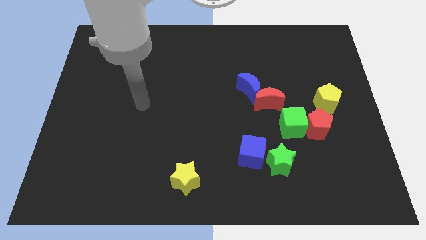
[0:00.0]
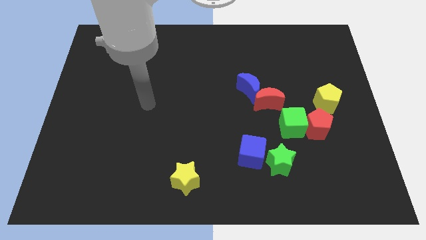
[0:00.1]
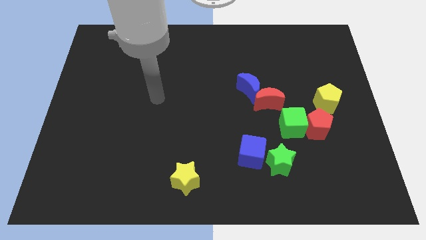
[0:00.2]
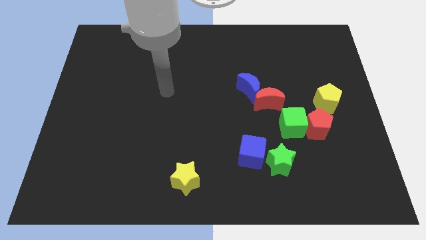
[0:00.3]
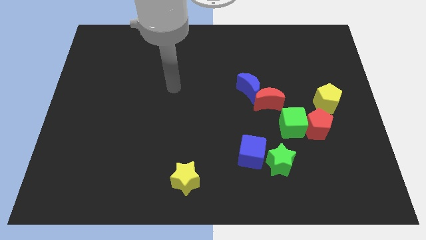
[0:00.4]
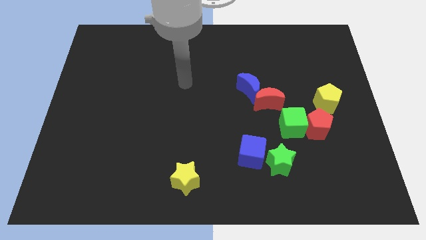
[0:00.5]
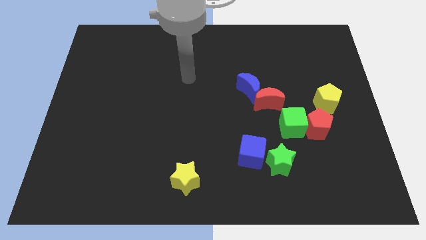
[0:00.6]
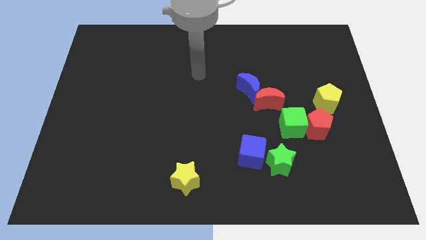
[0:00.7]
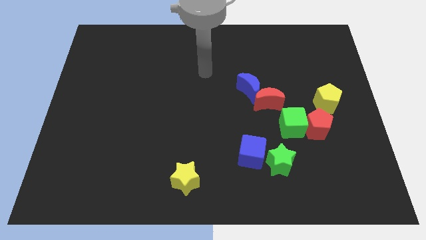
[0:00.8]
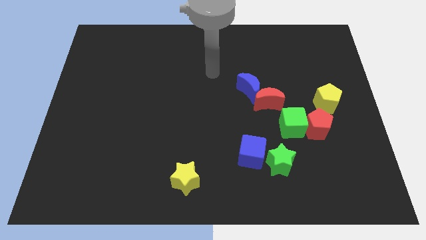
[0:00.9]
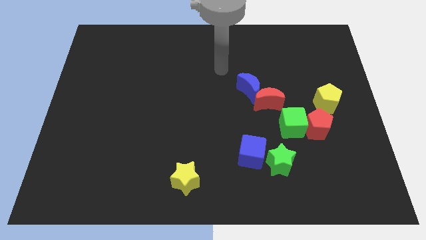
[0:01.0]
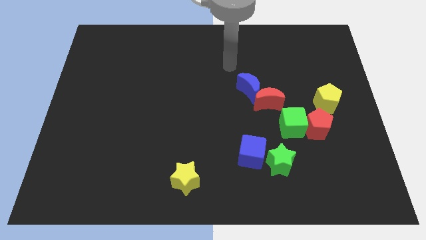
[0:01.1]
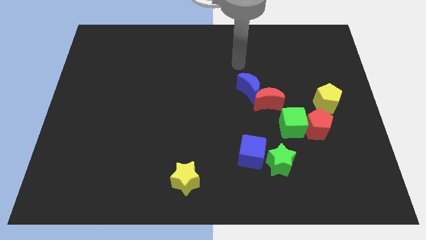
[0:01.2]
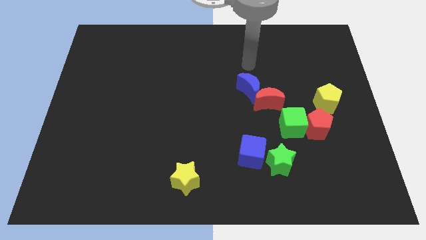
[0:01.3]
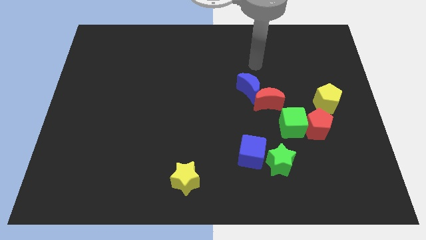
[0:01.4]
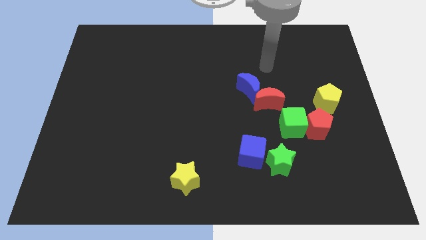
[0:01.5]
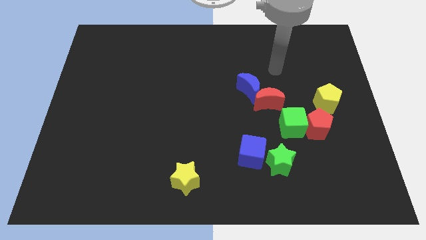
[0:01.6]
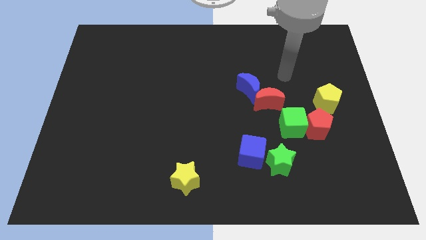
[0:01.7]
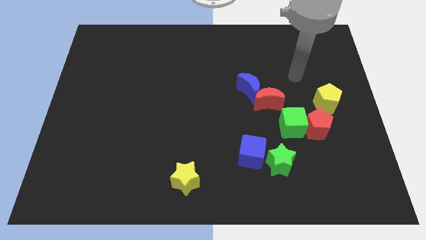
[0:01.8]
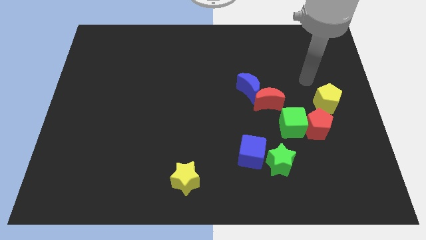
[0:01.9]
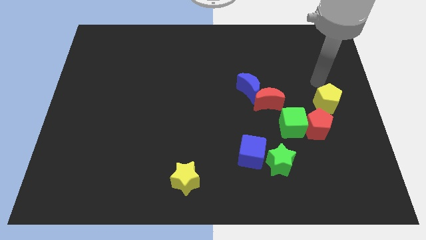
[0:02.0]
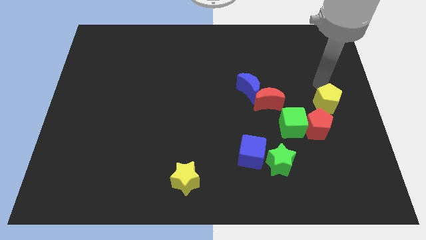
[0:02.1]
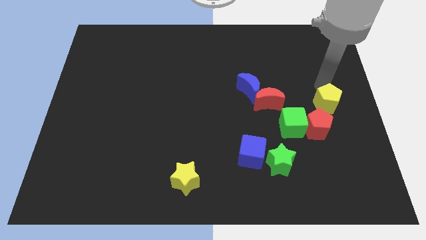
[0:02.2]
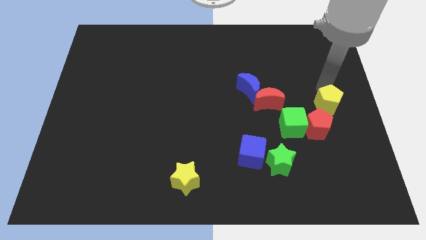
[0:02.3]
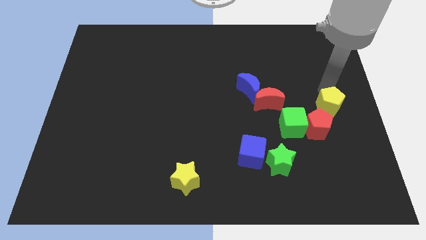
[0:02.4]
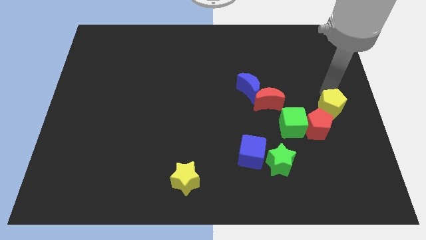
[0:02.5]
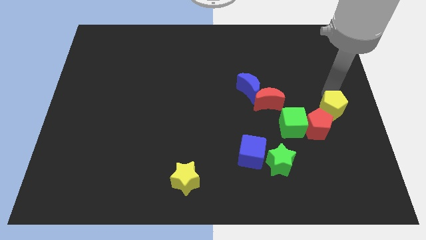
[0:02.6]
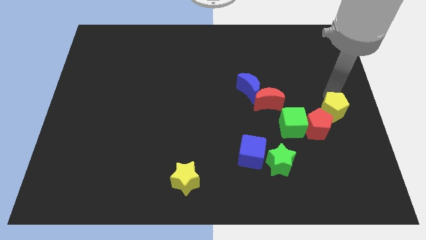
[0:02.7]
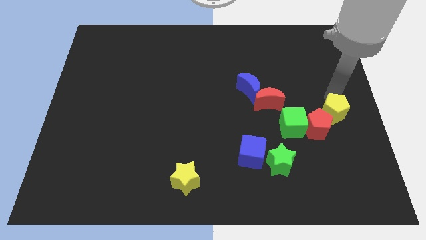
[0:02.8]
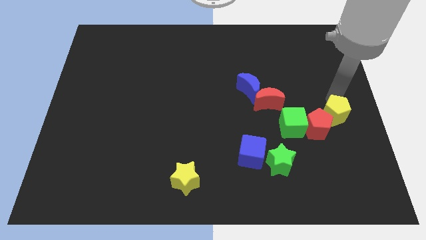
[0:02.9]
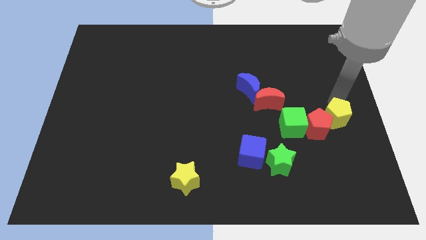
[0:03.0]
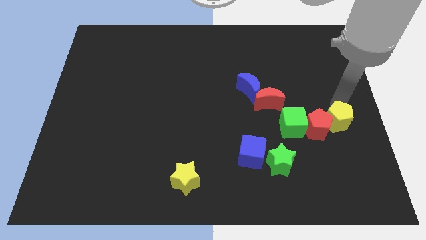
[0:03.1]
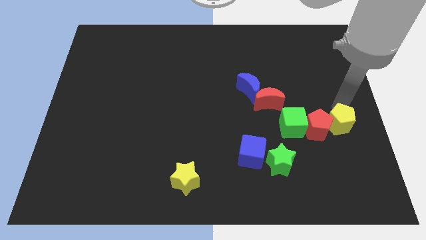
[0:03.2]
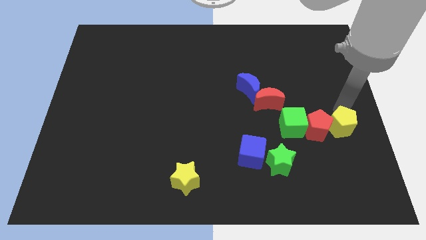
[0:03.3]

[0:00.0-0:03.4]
move the yellow pentagon a little bit down

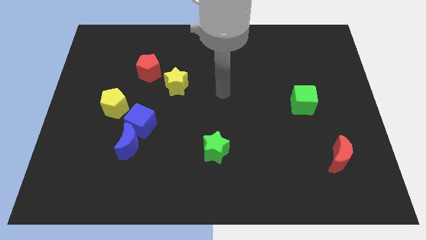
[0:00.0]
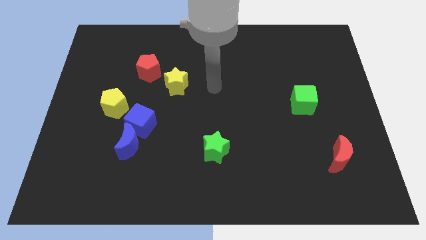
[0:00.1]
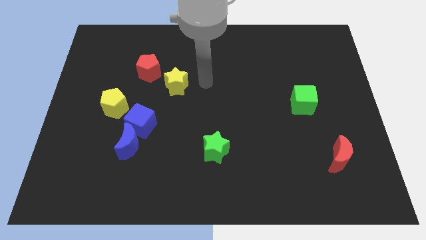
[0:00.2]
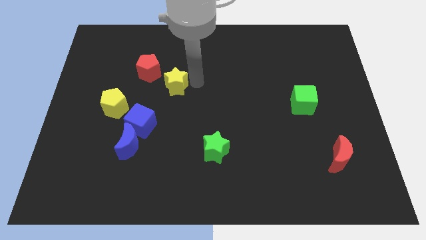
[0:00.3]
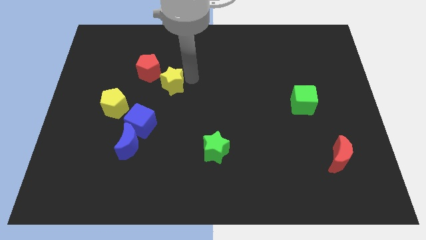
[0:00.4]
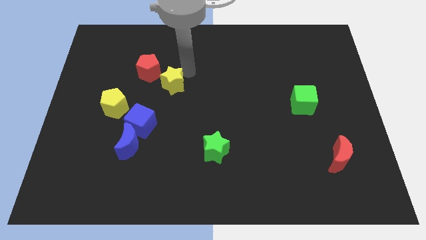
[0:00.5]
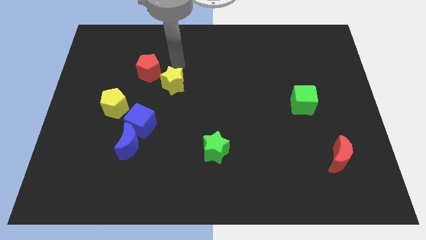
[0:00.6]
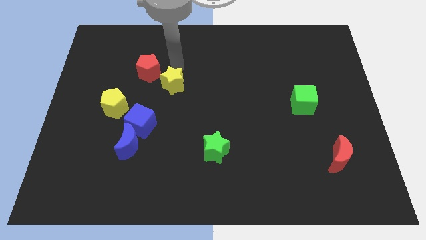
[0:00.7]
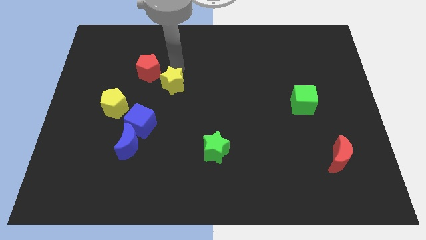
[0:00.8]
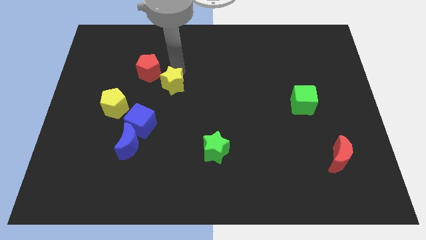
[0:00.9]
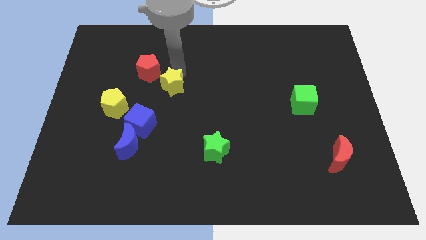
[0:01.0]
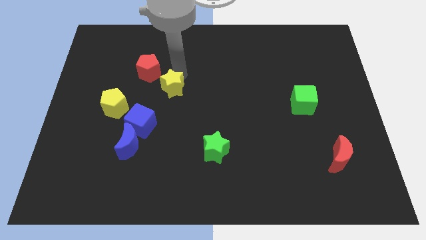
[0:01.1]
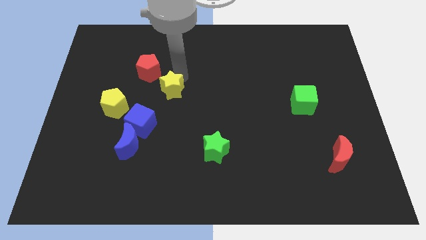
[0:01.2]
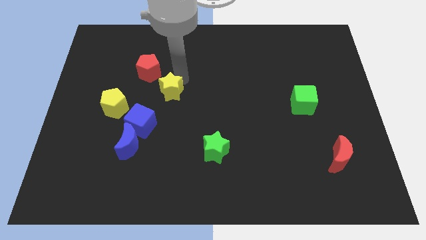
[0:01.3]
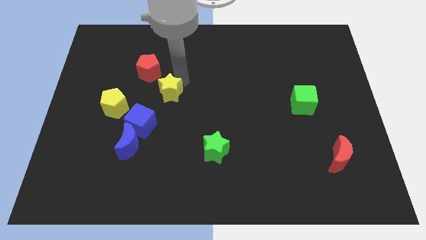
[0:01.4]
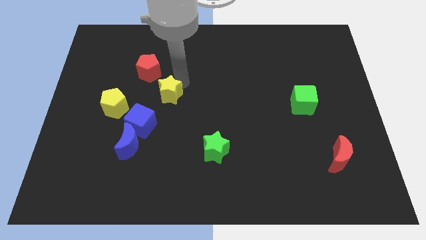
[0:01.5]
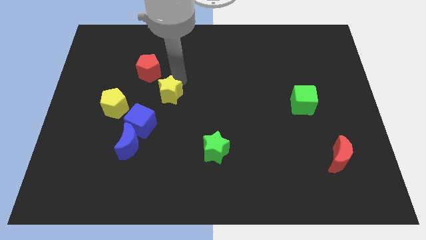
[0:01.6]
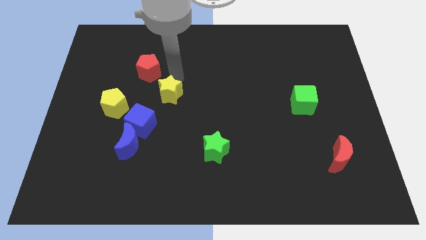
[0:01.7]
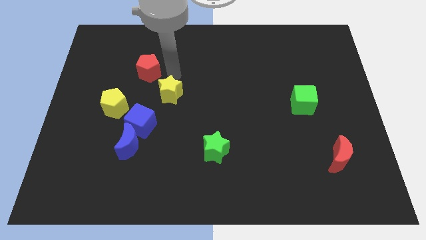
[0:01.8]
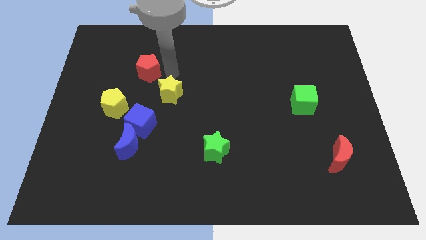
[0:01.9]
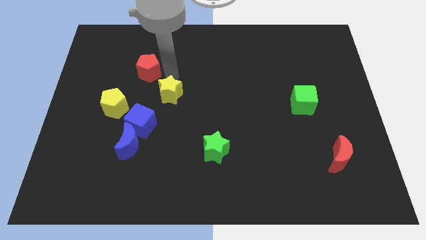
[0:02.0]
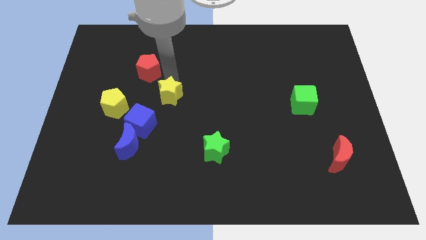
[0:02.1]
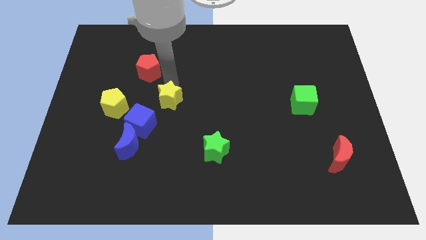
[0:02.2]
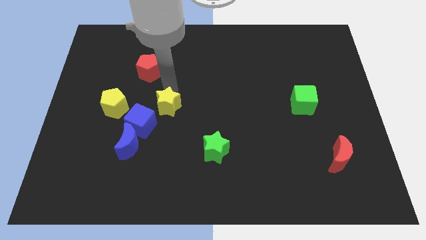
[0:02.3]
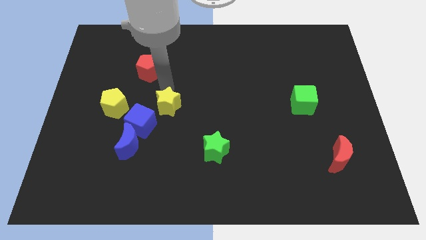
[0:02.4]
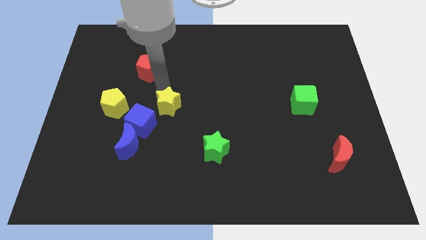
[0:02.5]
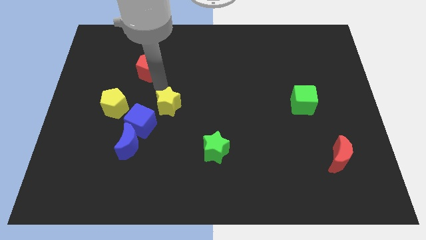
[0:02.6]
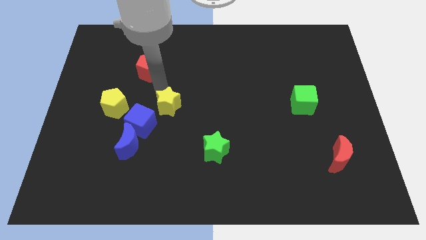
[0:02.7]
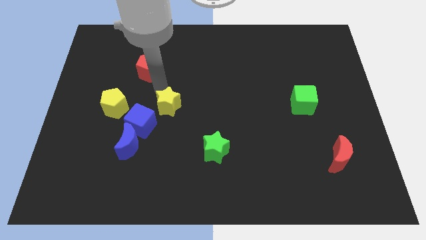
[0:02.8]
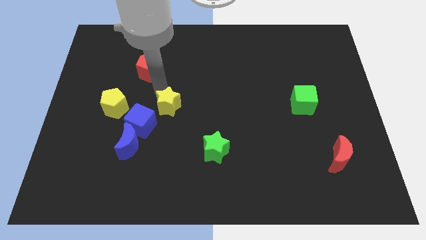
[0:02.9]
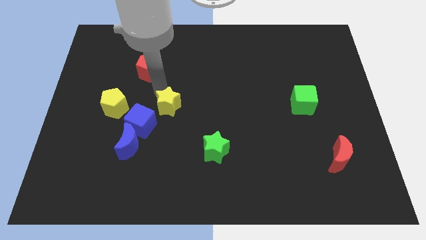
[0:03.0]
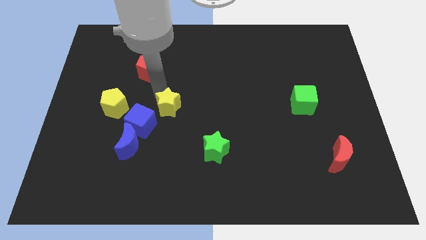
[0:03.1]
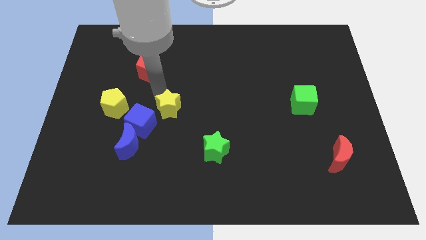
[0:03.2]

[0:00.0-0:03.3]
move the yellow star down somewhat

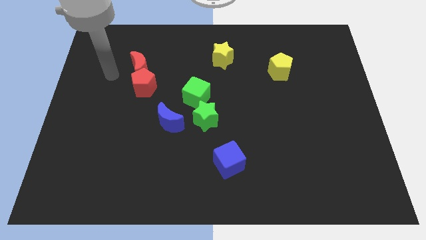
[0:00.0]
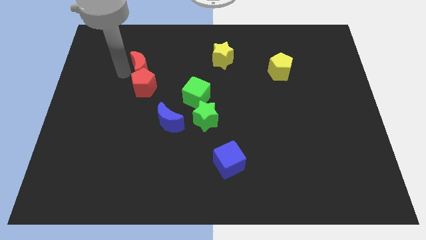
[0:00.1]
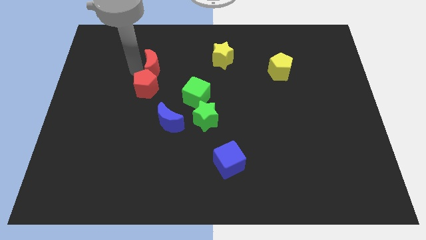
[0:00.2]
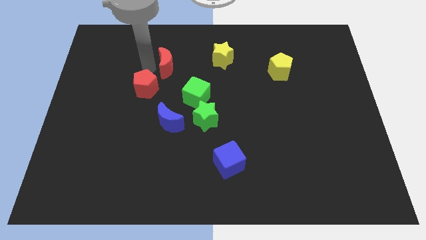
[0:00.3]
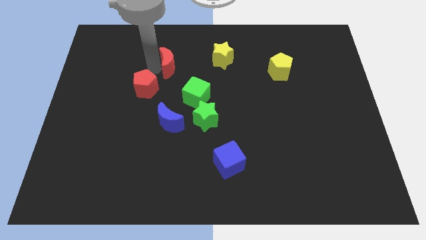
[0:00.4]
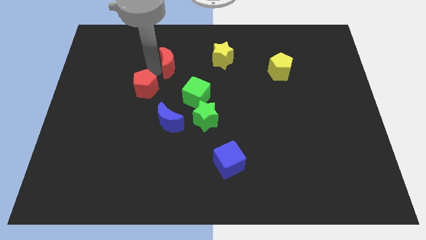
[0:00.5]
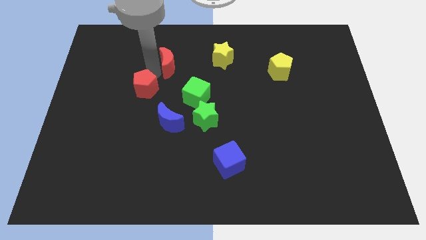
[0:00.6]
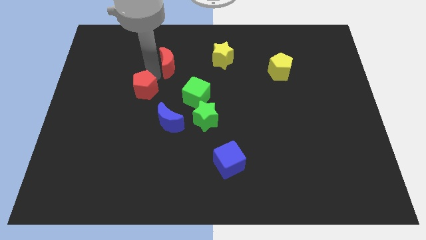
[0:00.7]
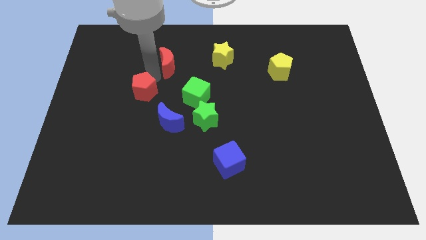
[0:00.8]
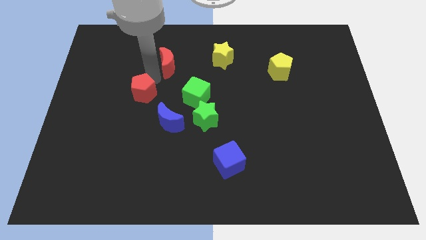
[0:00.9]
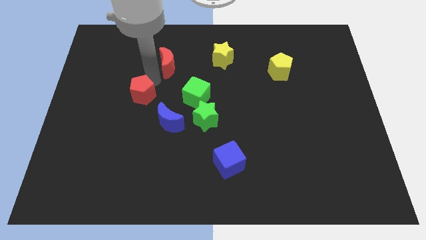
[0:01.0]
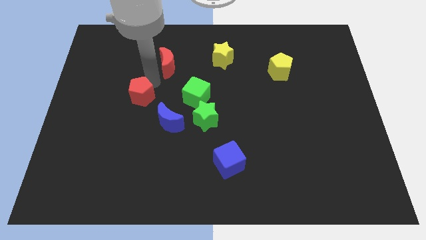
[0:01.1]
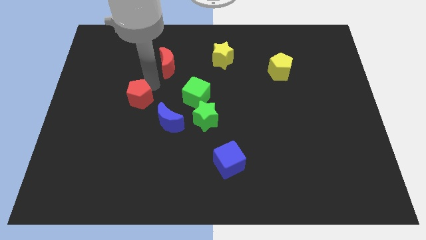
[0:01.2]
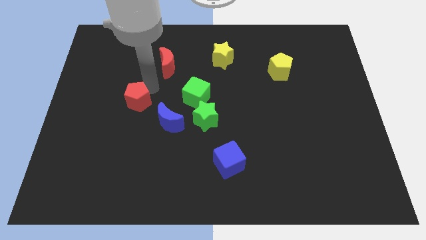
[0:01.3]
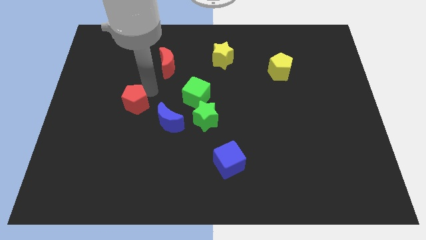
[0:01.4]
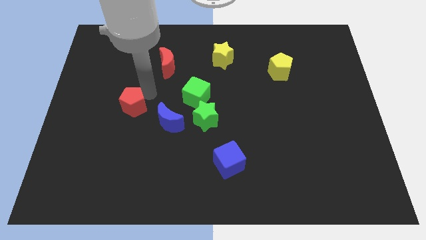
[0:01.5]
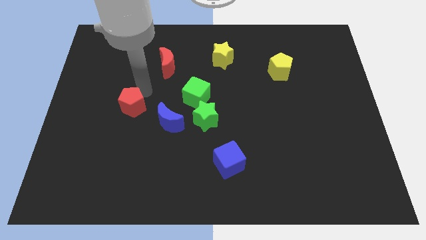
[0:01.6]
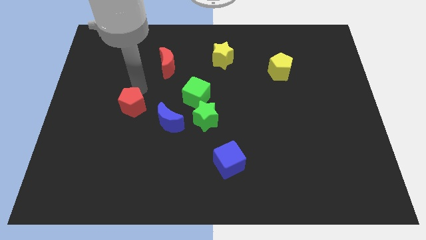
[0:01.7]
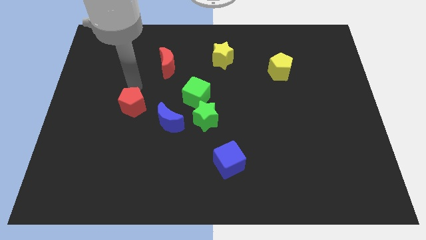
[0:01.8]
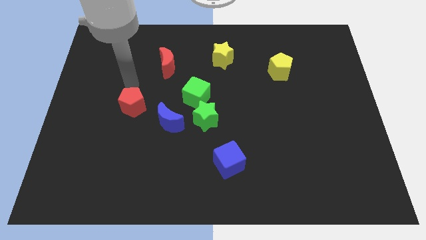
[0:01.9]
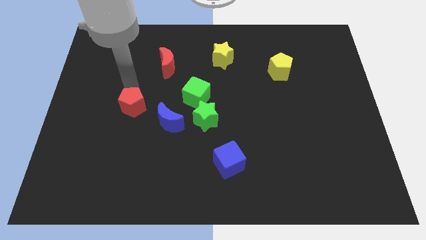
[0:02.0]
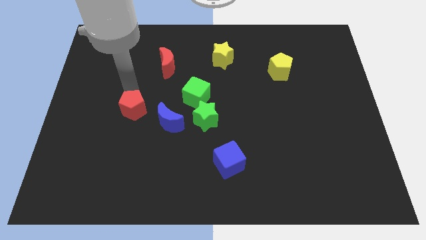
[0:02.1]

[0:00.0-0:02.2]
slightly slide the red pentagon downwards
